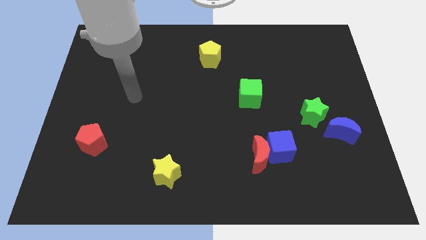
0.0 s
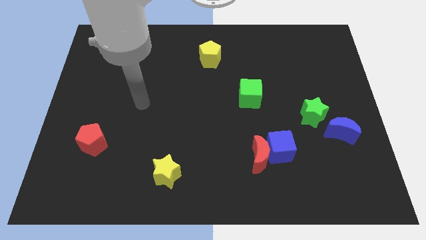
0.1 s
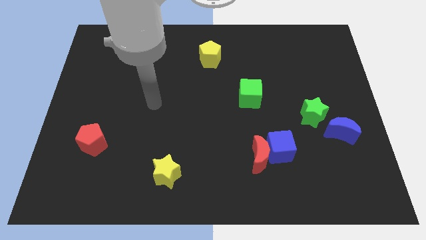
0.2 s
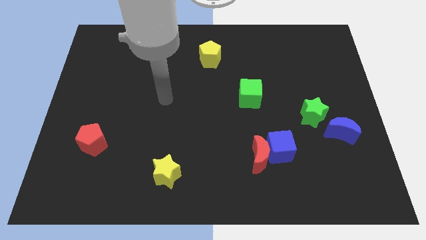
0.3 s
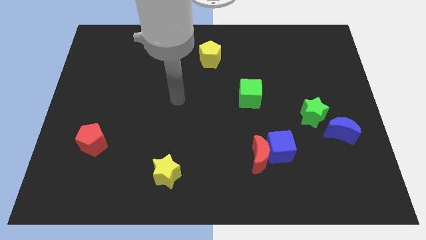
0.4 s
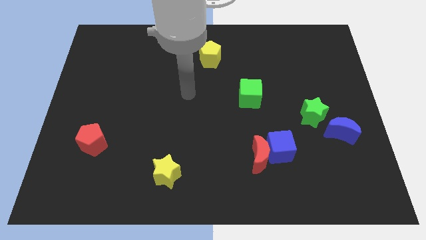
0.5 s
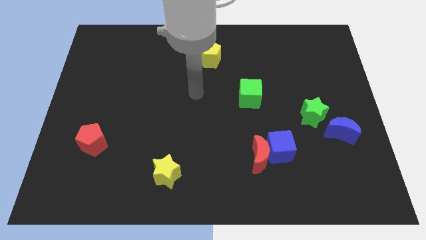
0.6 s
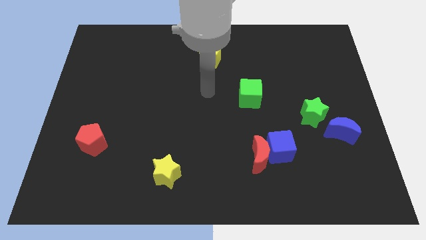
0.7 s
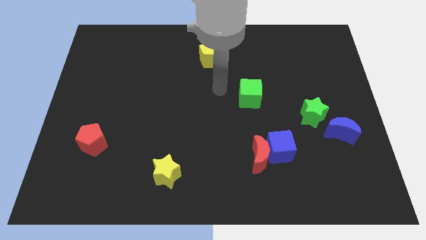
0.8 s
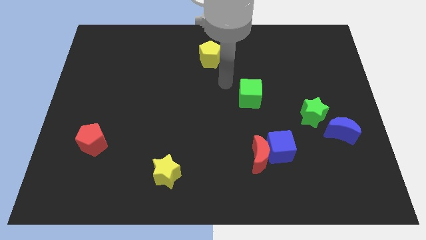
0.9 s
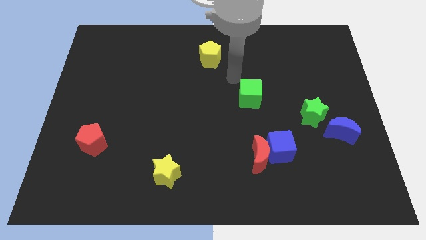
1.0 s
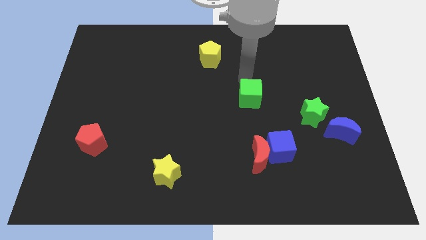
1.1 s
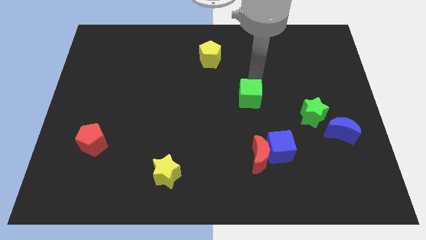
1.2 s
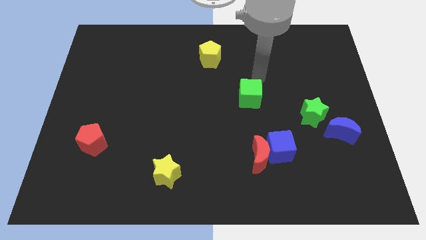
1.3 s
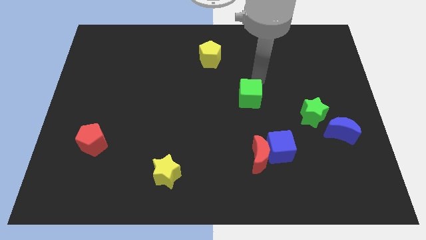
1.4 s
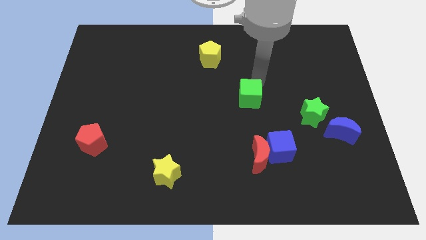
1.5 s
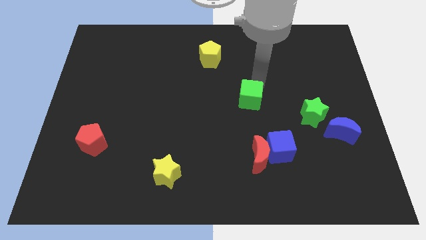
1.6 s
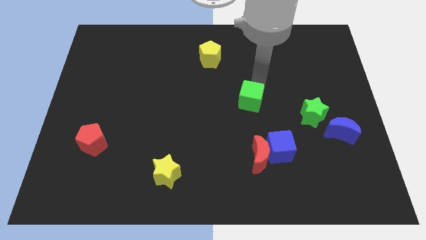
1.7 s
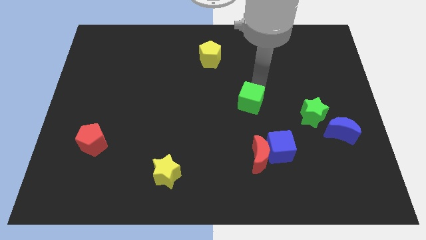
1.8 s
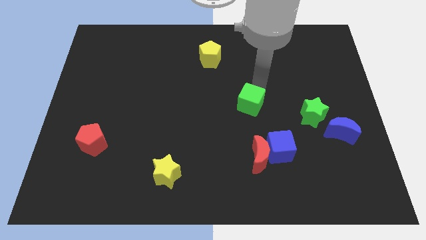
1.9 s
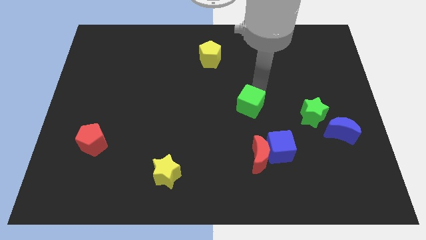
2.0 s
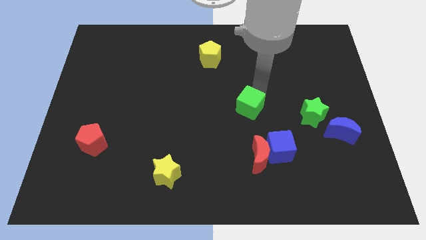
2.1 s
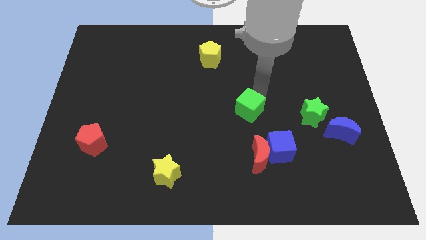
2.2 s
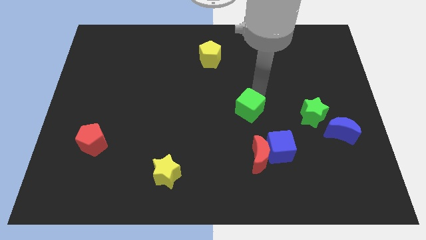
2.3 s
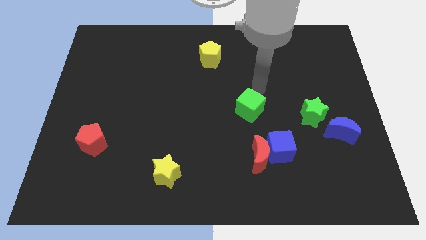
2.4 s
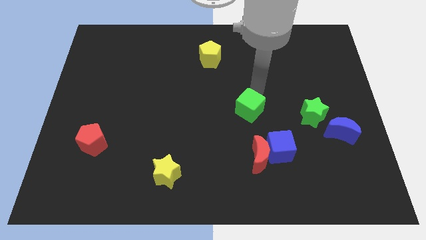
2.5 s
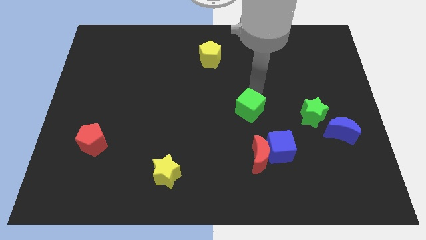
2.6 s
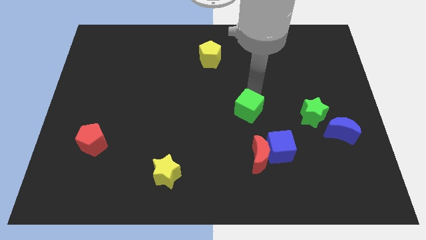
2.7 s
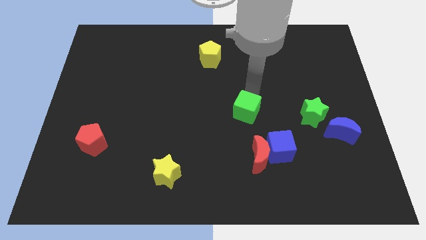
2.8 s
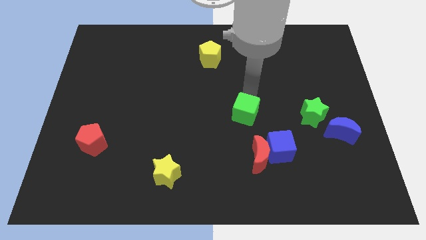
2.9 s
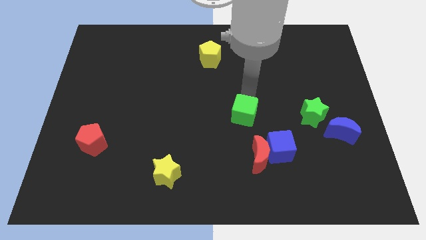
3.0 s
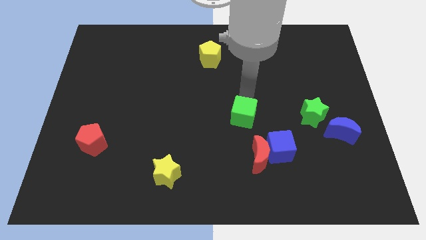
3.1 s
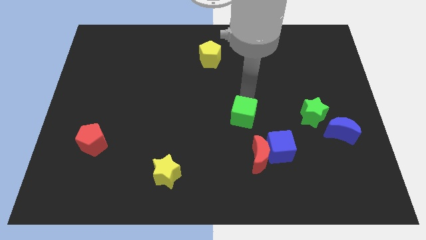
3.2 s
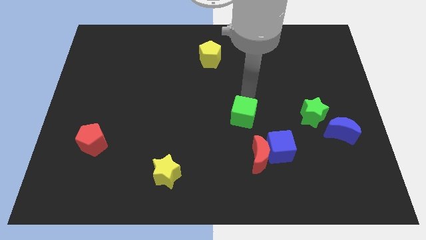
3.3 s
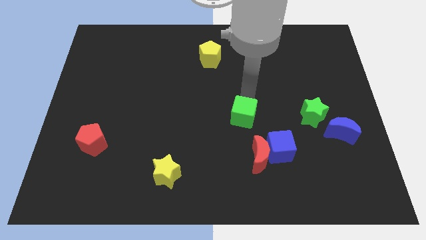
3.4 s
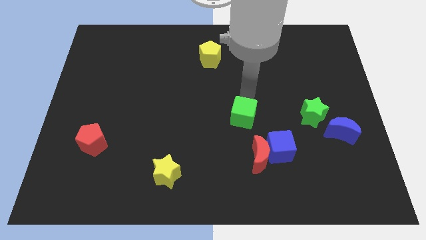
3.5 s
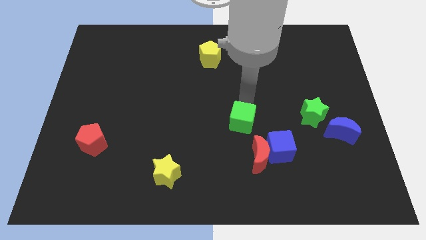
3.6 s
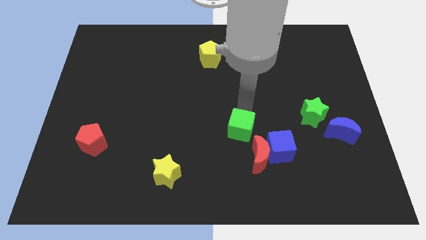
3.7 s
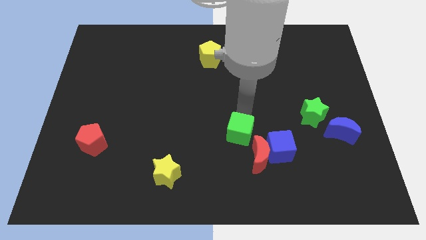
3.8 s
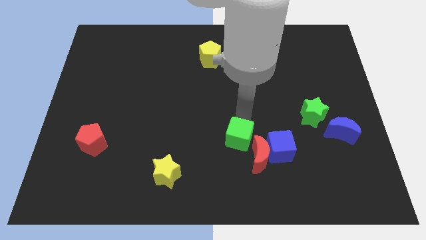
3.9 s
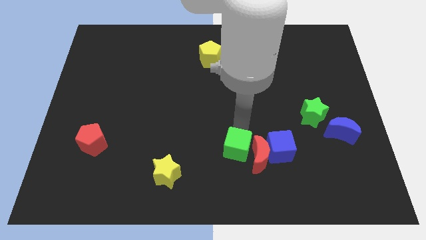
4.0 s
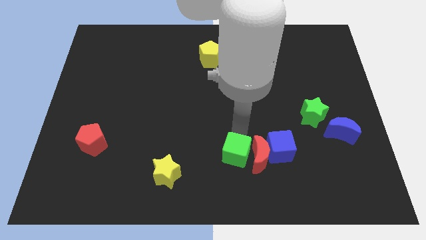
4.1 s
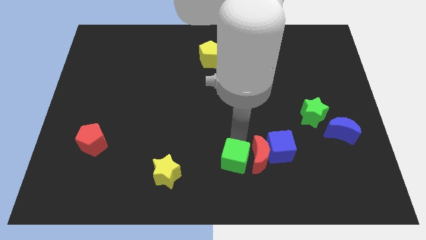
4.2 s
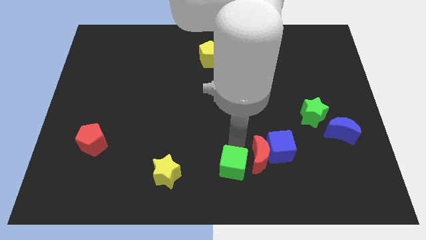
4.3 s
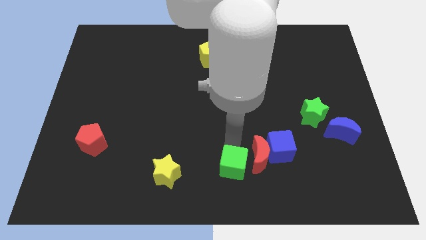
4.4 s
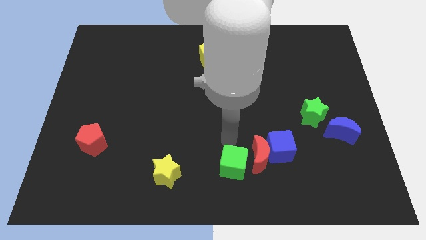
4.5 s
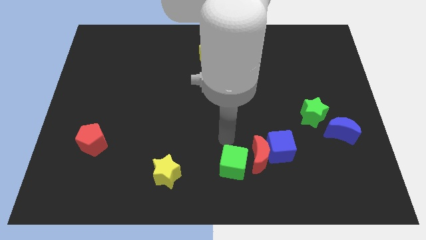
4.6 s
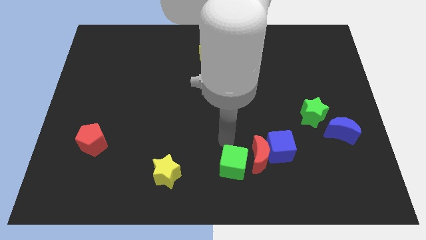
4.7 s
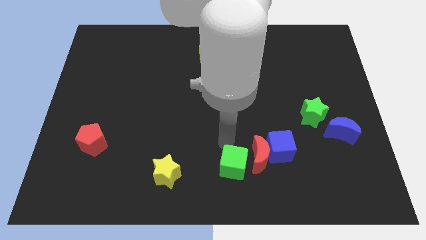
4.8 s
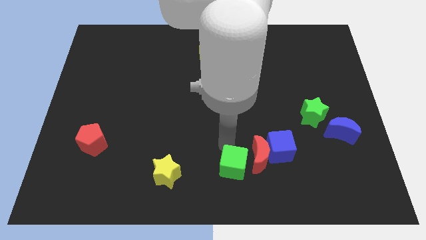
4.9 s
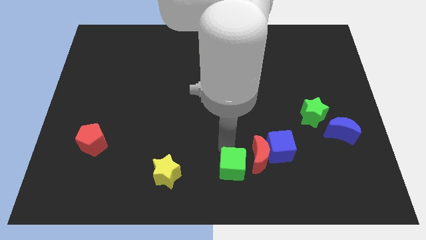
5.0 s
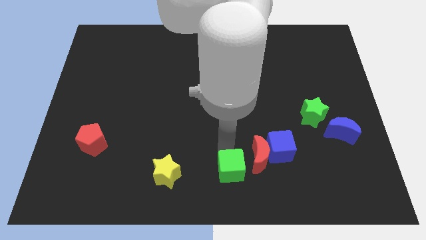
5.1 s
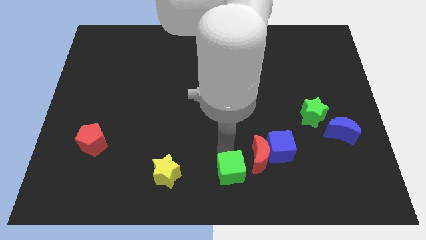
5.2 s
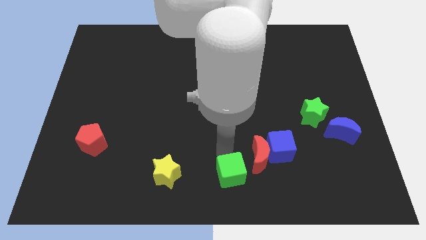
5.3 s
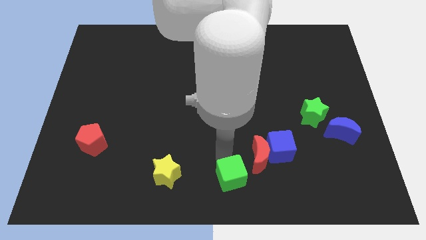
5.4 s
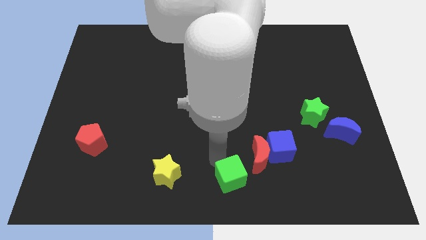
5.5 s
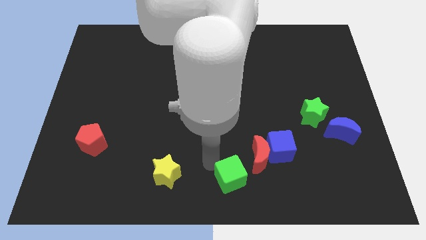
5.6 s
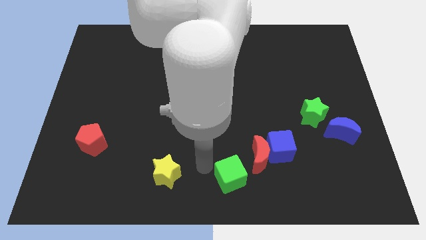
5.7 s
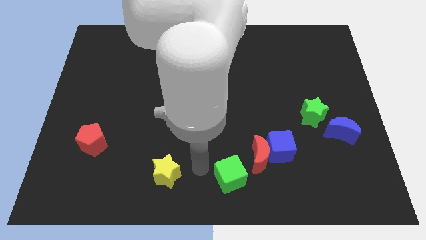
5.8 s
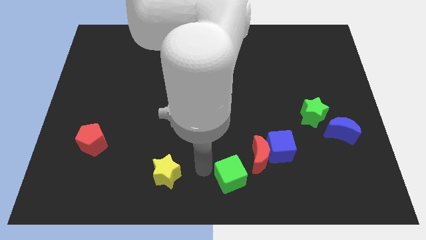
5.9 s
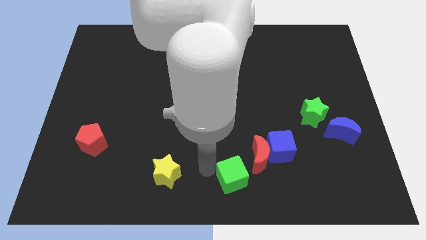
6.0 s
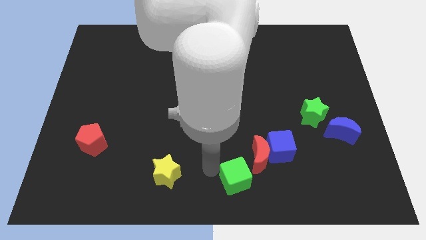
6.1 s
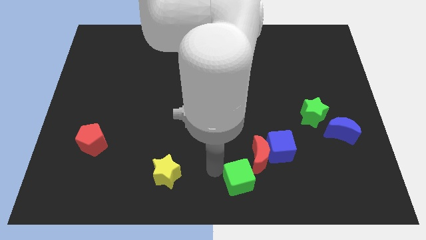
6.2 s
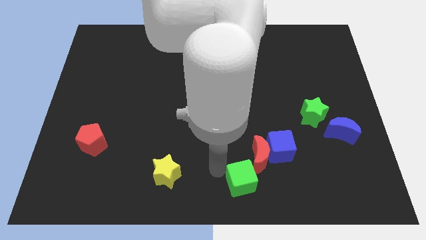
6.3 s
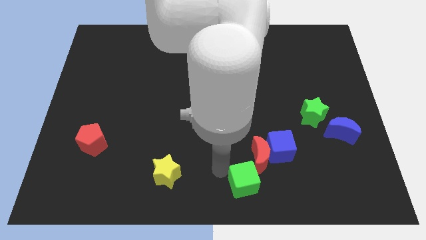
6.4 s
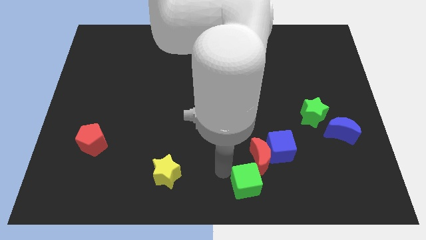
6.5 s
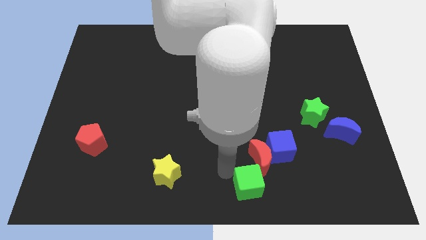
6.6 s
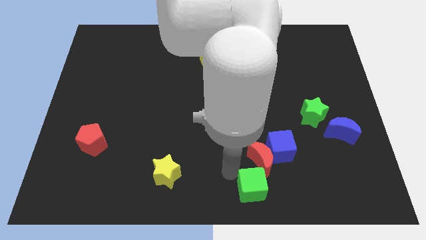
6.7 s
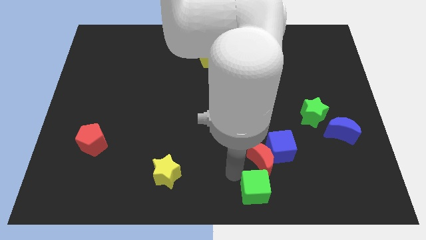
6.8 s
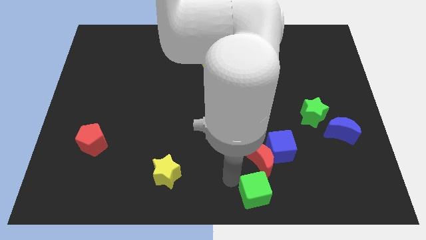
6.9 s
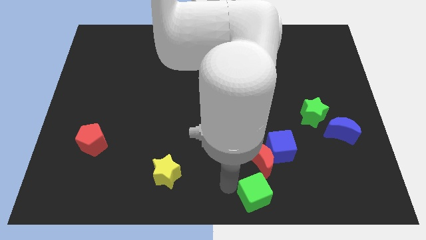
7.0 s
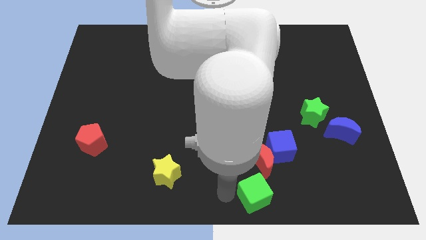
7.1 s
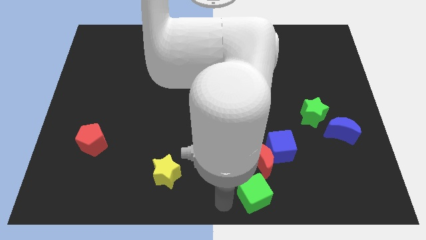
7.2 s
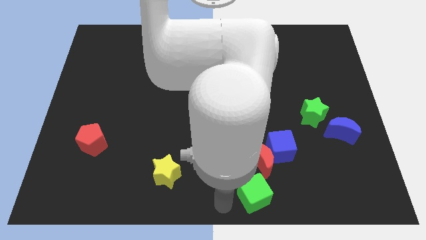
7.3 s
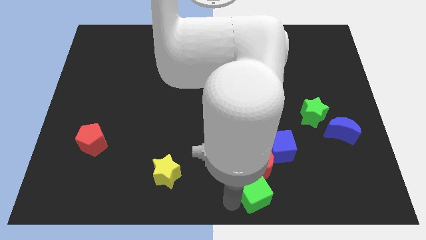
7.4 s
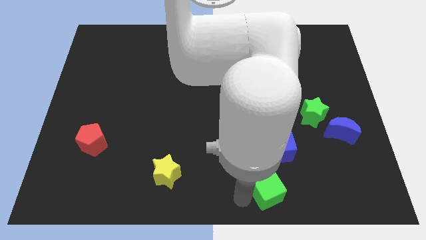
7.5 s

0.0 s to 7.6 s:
slide the green cube to the bottom right of the red moon
